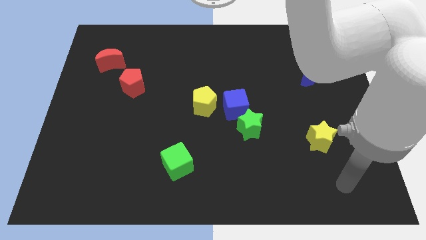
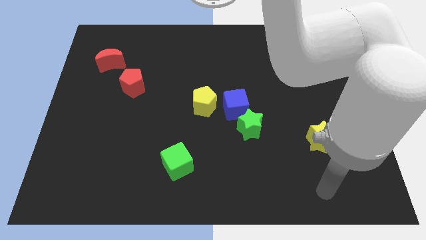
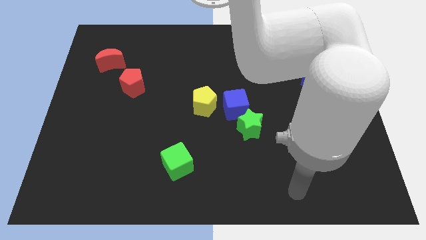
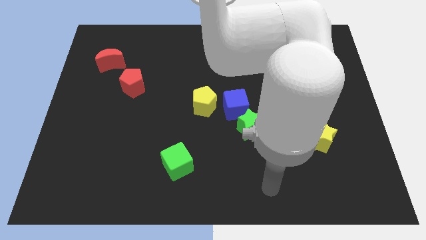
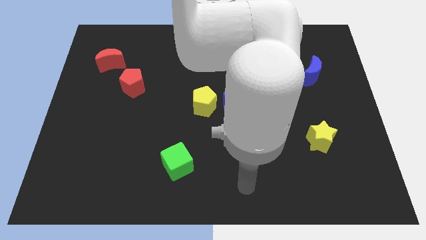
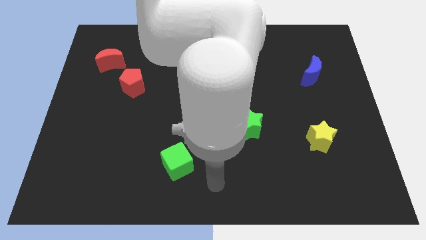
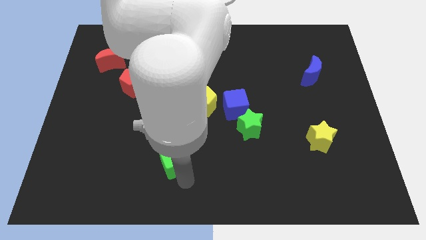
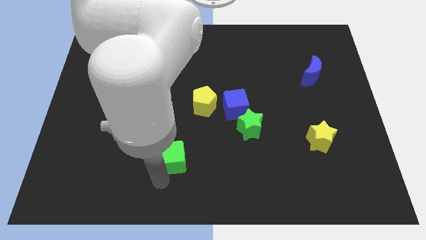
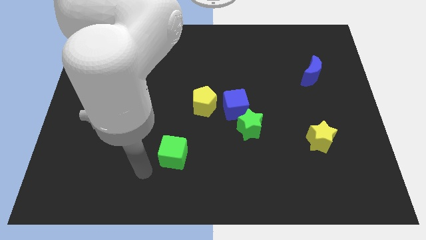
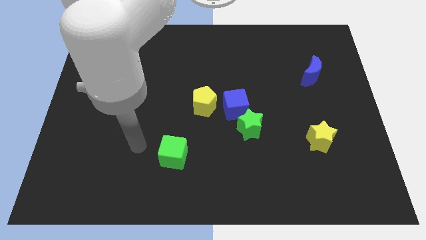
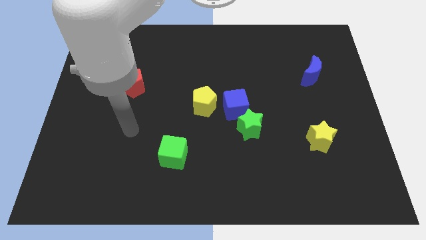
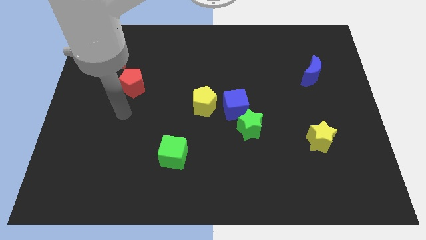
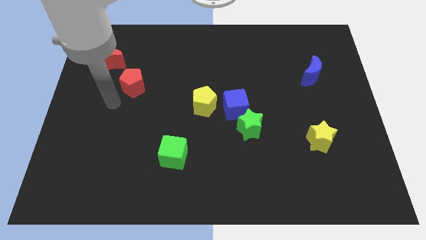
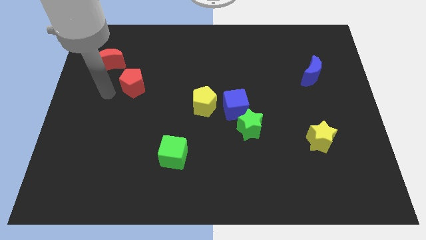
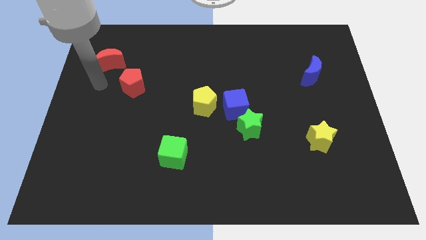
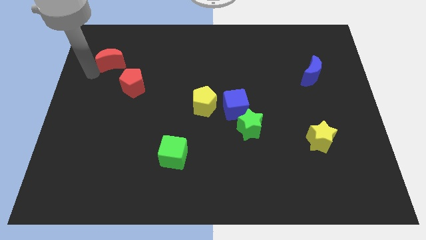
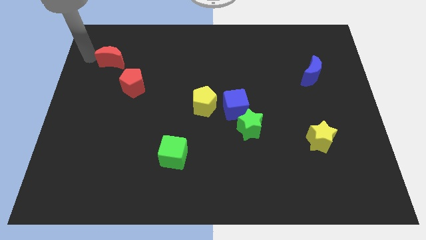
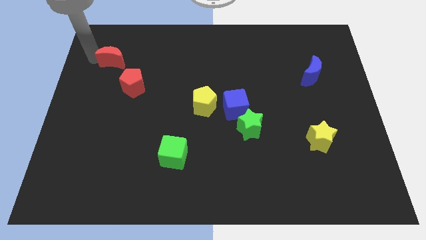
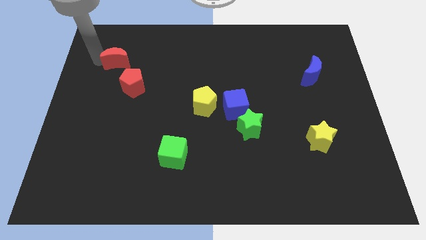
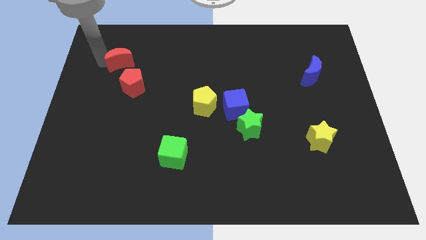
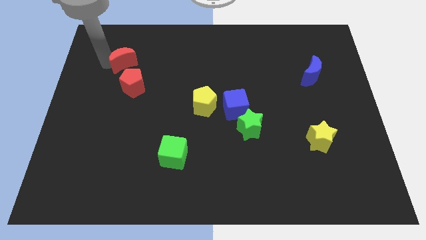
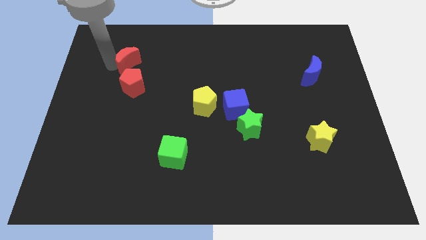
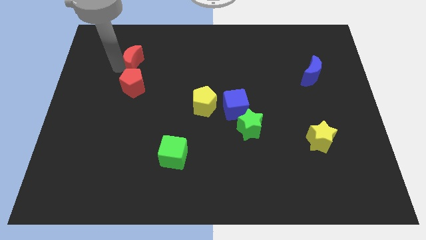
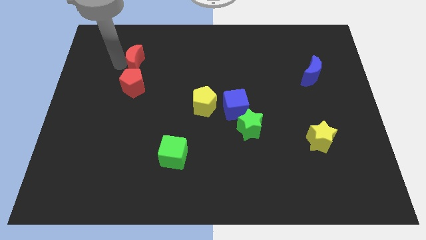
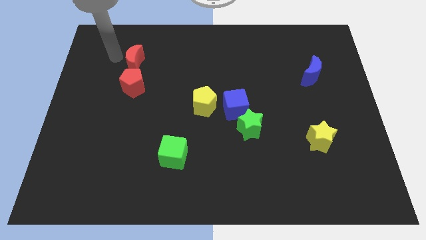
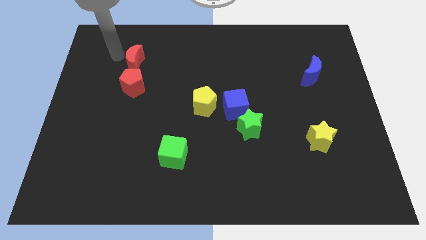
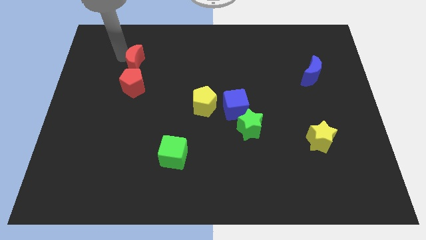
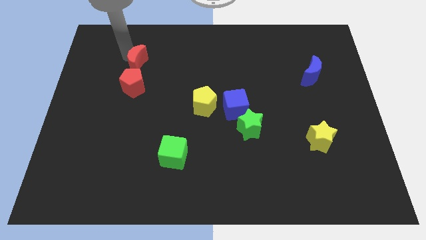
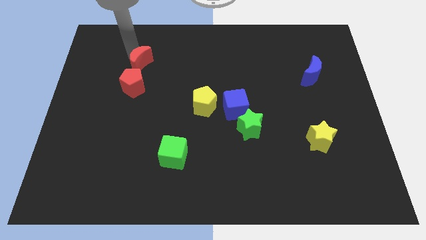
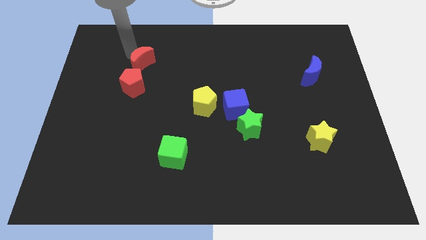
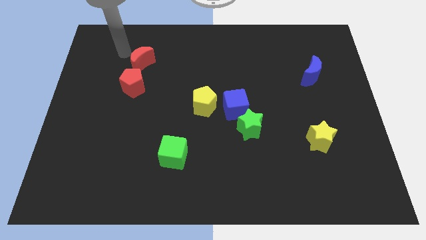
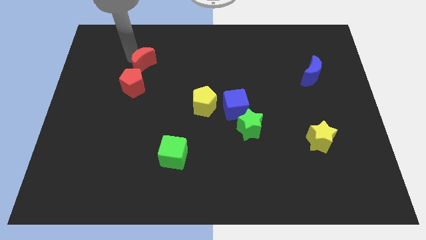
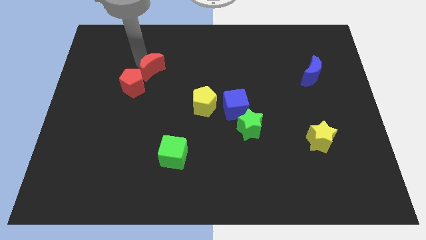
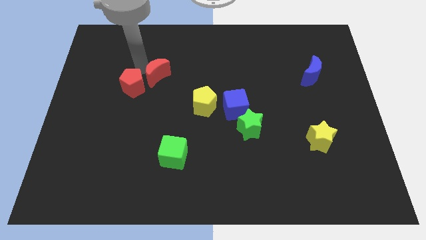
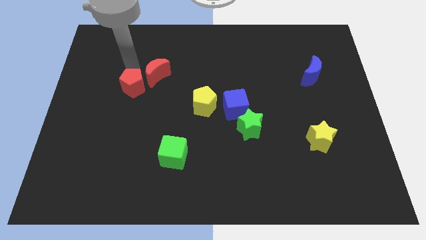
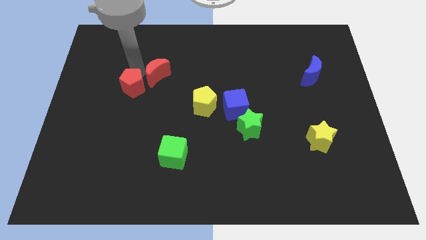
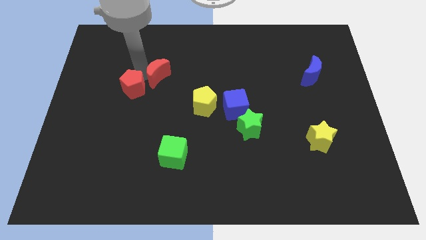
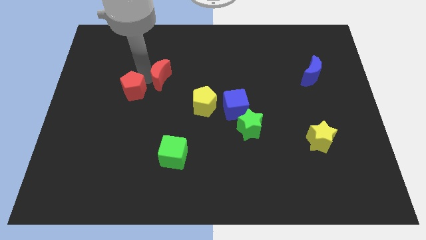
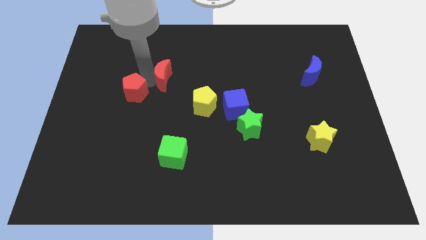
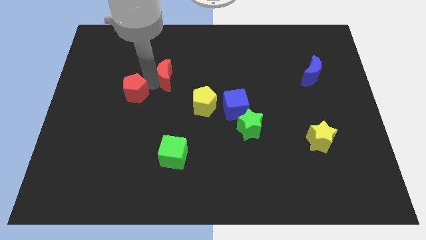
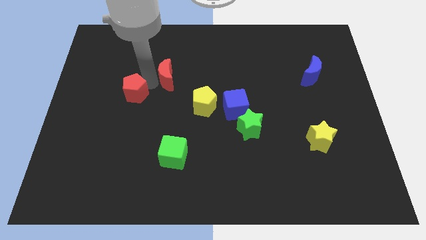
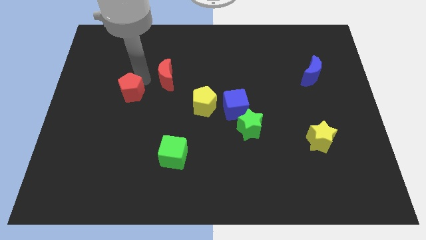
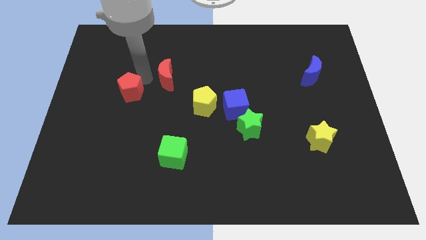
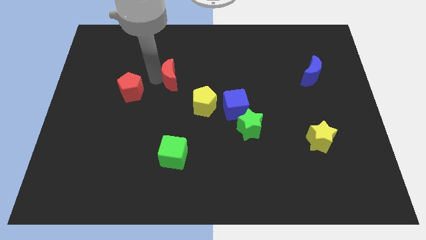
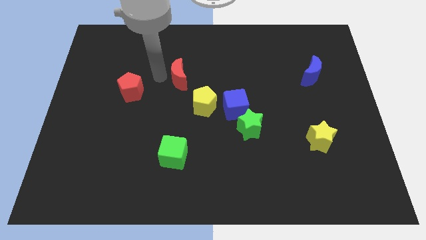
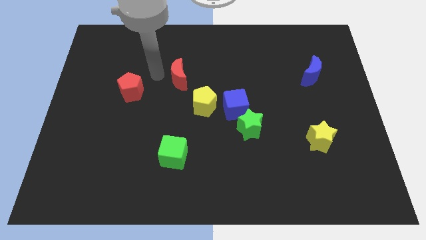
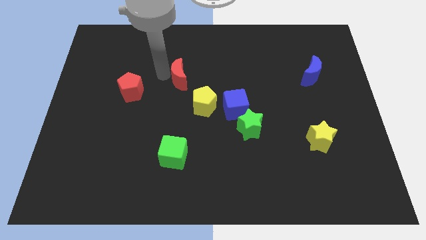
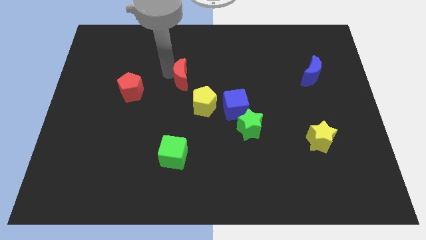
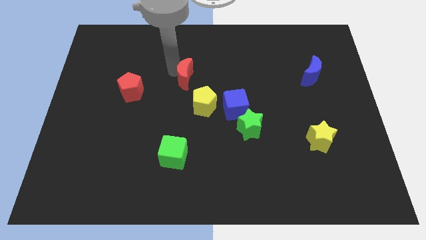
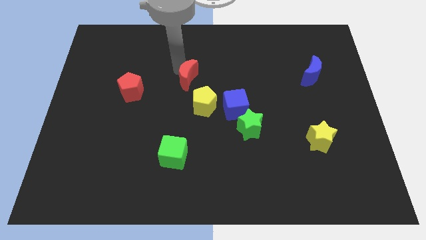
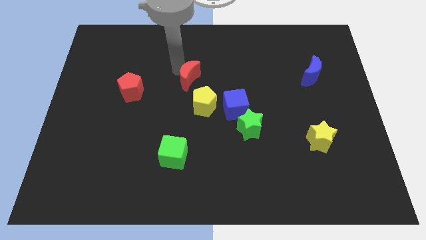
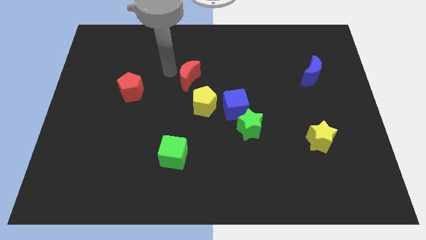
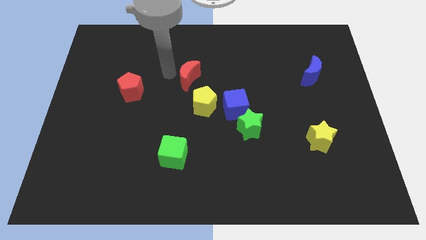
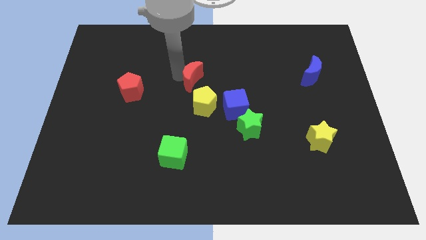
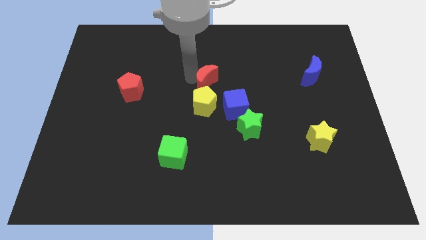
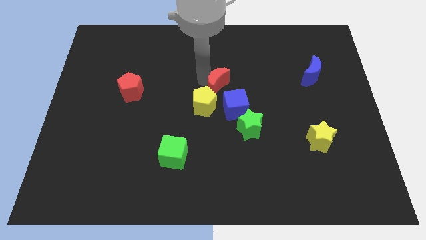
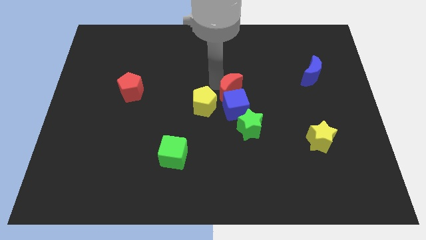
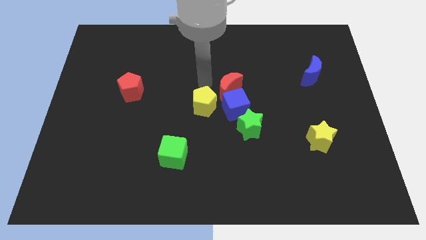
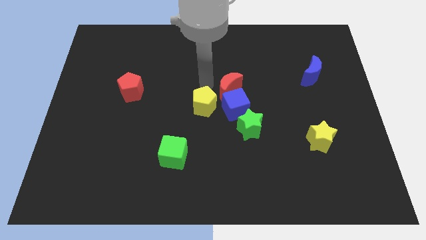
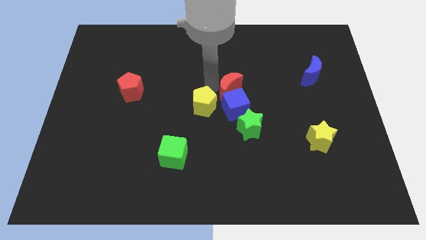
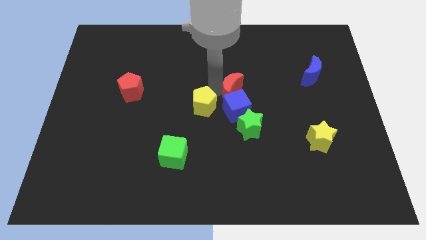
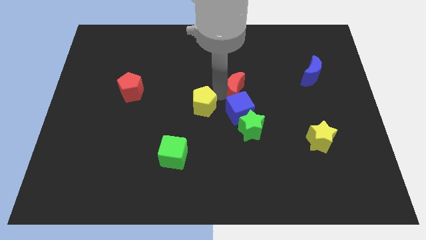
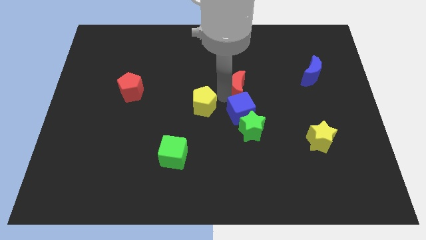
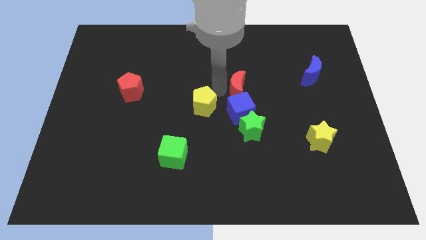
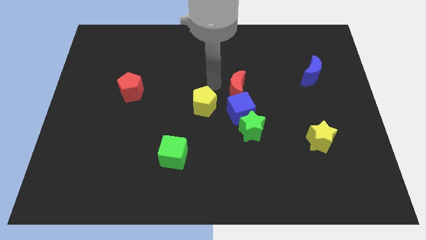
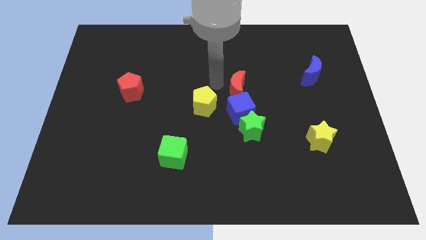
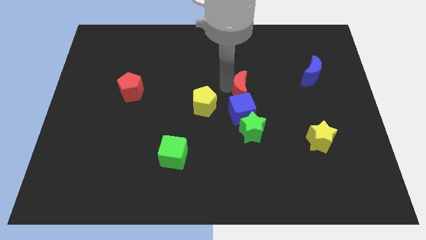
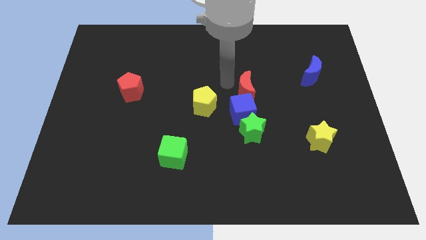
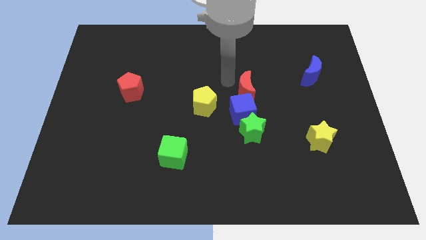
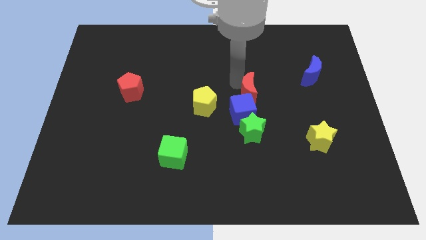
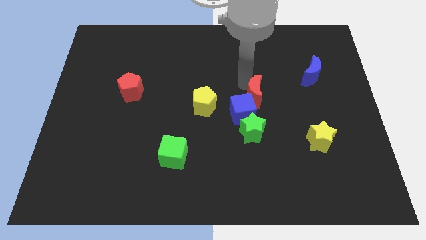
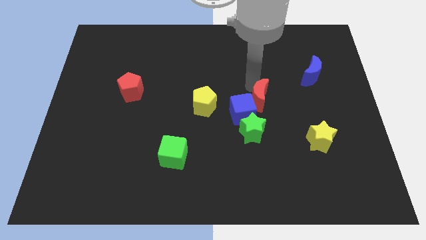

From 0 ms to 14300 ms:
put the red moon right of the blue cube
